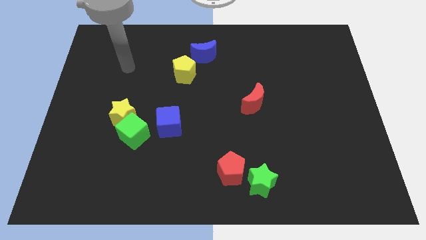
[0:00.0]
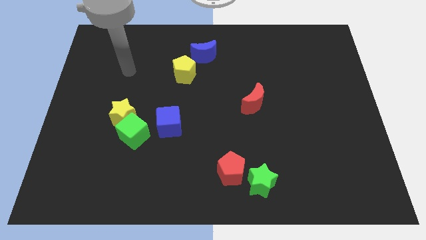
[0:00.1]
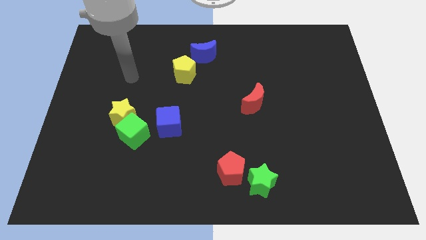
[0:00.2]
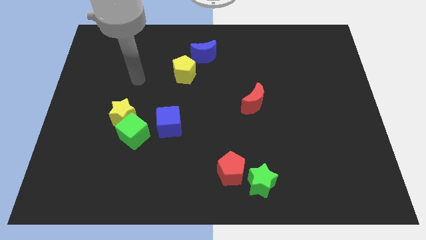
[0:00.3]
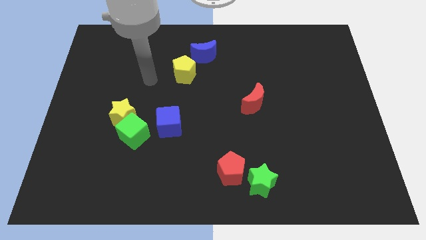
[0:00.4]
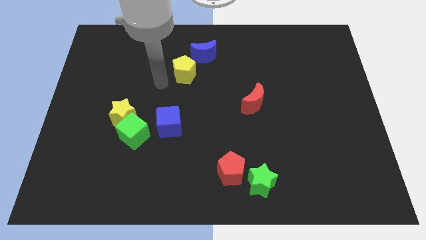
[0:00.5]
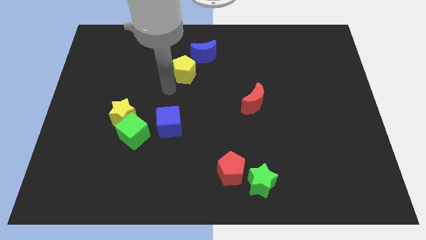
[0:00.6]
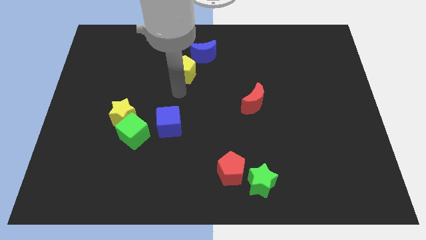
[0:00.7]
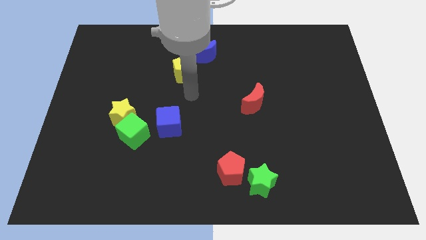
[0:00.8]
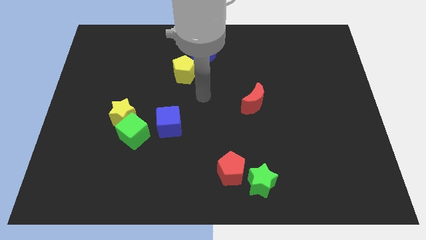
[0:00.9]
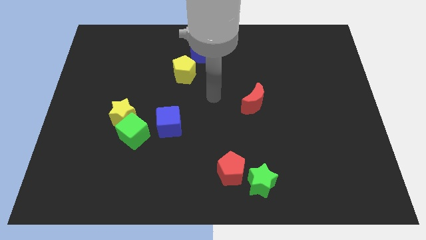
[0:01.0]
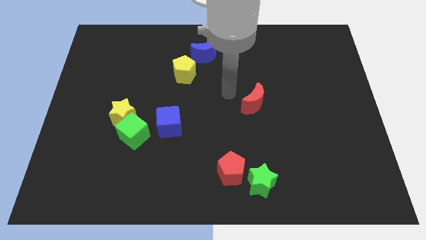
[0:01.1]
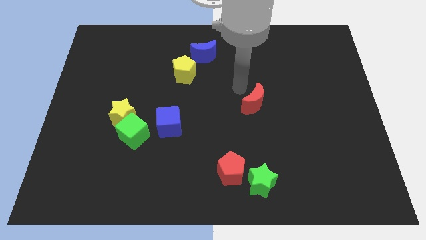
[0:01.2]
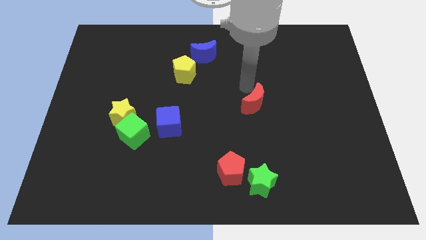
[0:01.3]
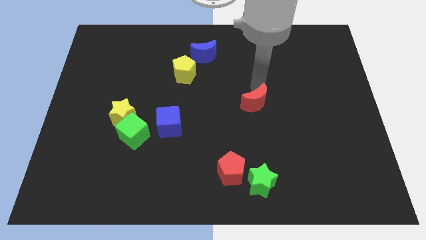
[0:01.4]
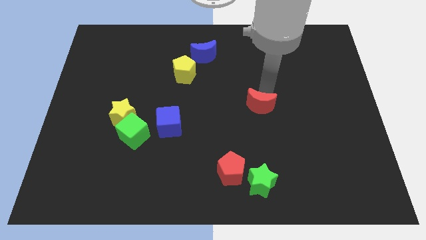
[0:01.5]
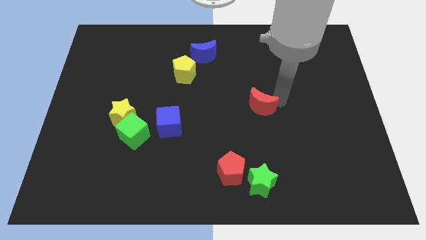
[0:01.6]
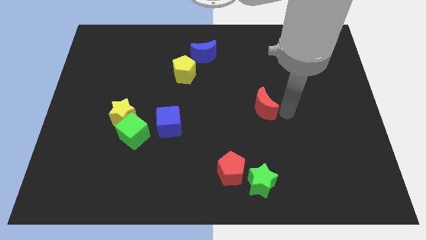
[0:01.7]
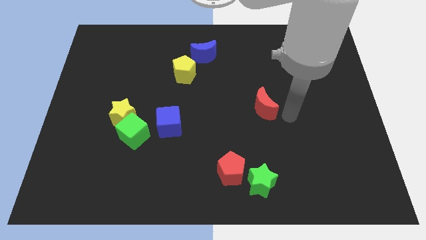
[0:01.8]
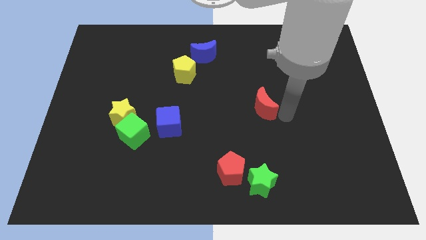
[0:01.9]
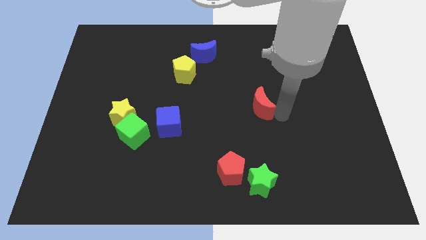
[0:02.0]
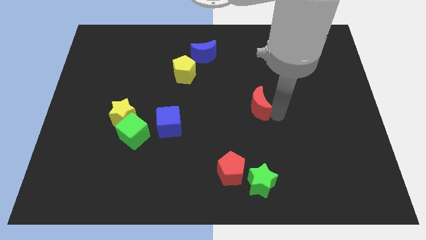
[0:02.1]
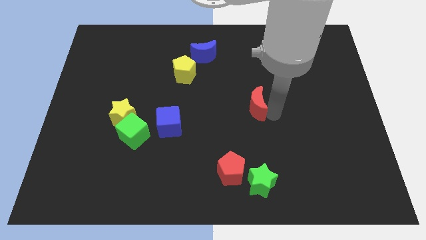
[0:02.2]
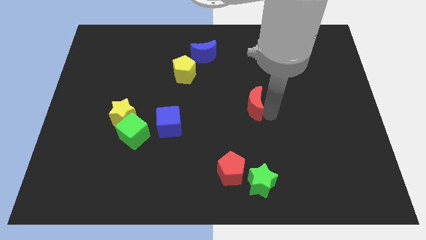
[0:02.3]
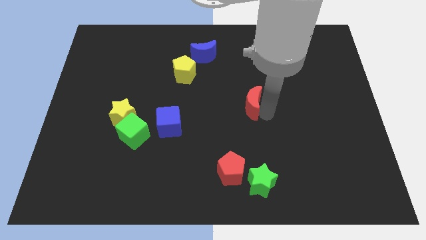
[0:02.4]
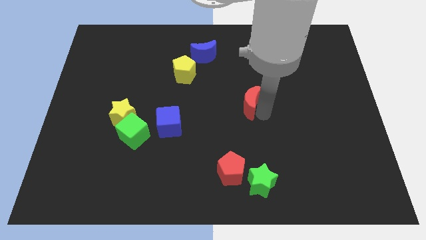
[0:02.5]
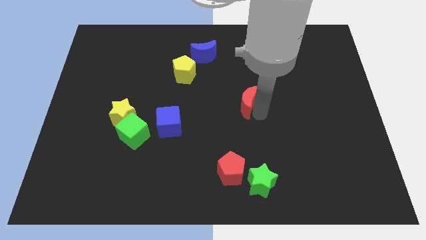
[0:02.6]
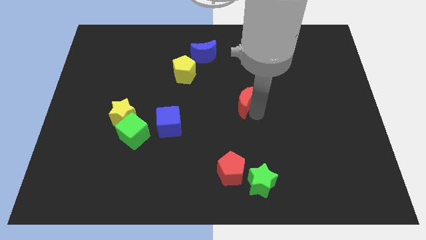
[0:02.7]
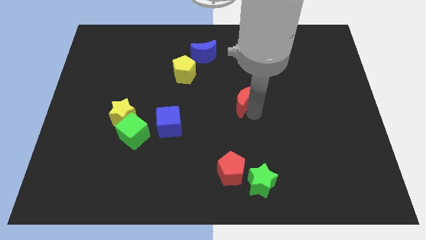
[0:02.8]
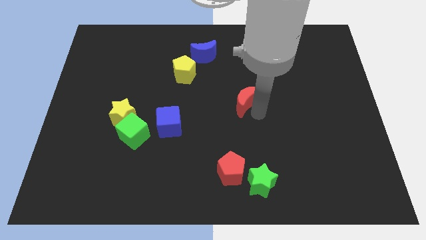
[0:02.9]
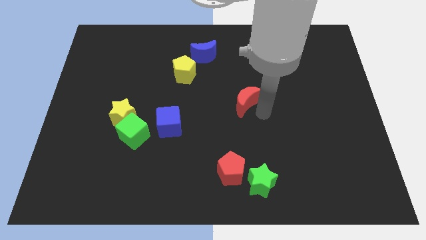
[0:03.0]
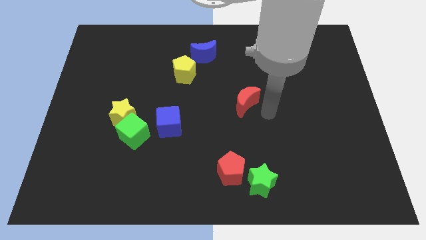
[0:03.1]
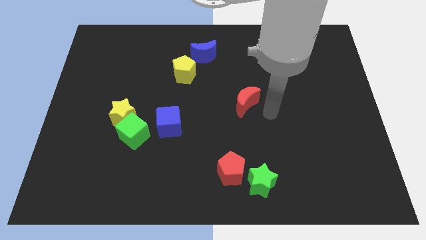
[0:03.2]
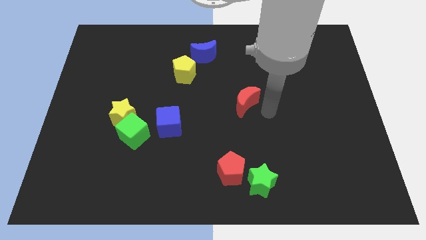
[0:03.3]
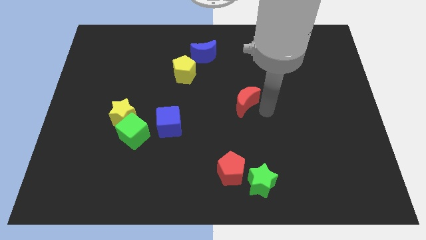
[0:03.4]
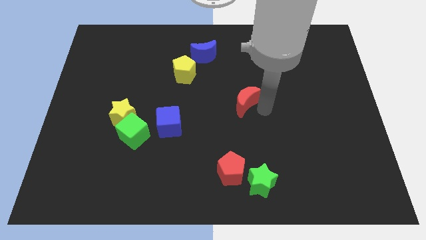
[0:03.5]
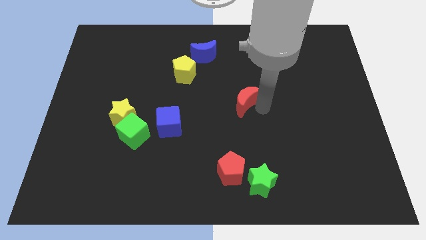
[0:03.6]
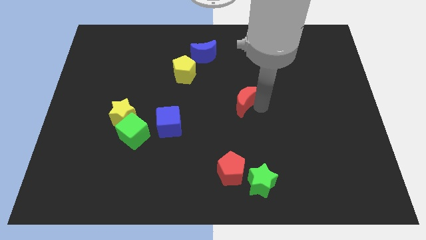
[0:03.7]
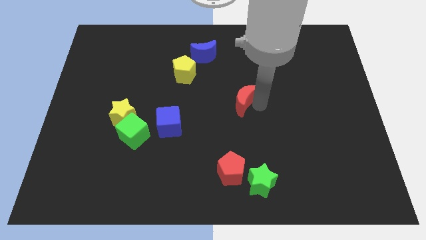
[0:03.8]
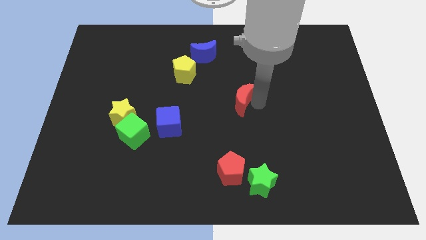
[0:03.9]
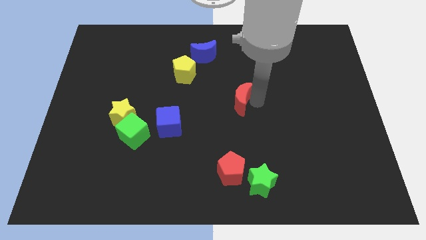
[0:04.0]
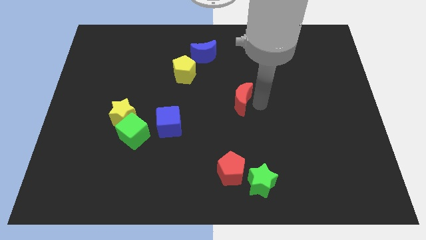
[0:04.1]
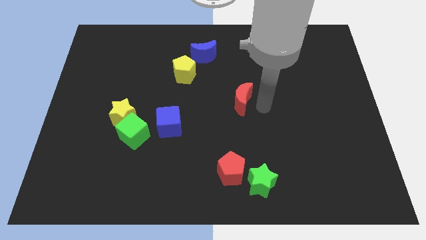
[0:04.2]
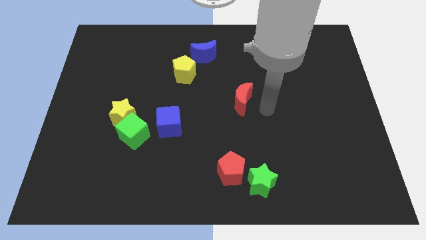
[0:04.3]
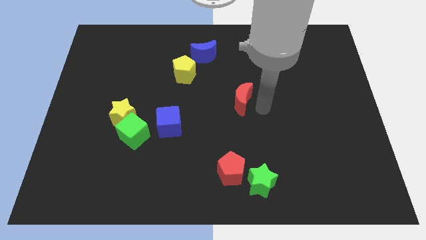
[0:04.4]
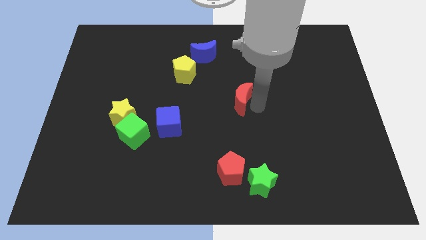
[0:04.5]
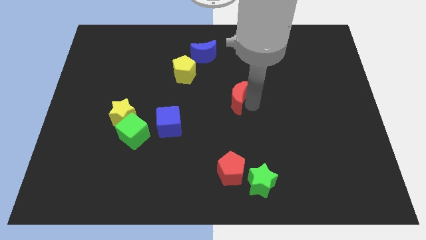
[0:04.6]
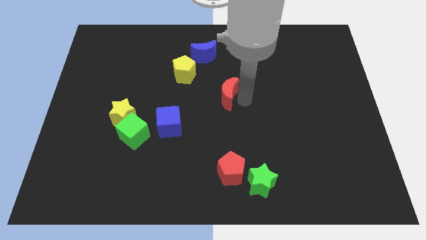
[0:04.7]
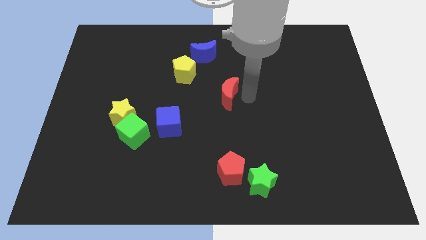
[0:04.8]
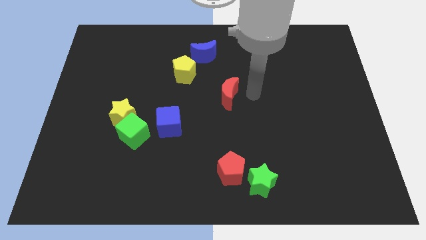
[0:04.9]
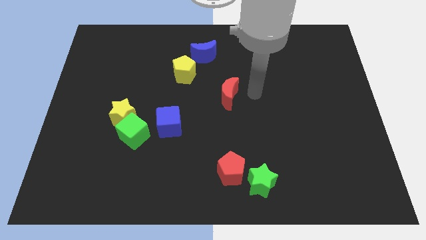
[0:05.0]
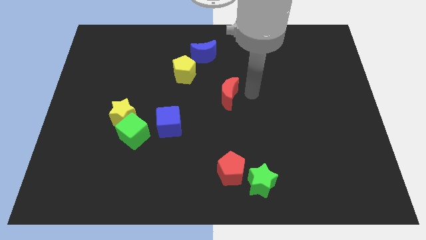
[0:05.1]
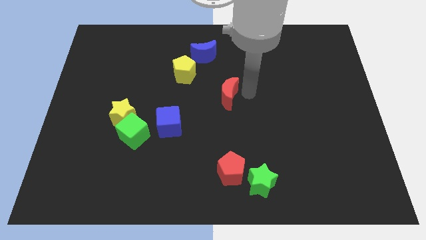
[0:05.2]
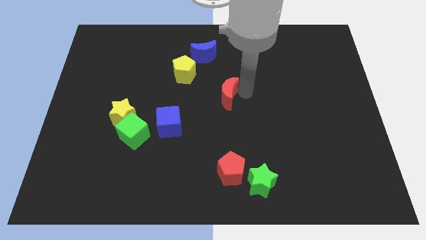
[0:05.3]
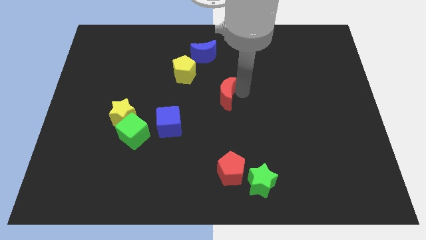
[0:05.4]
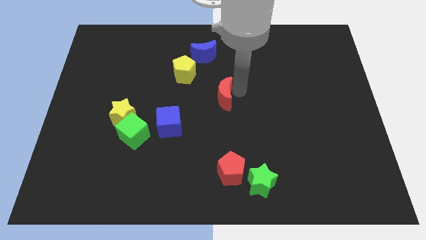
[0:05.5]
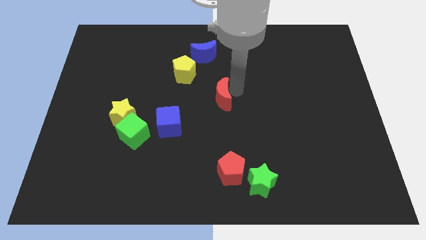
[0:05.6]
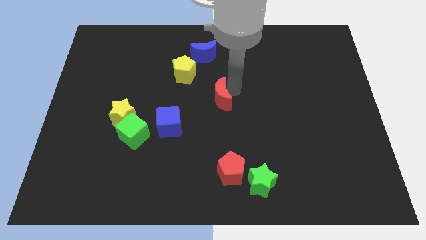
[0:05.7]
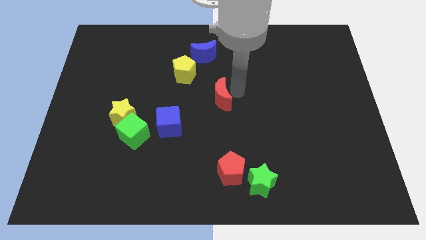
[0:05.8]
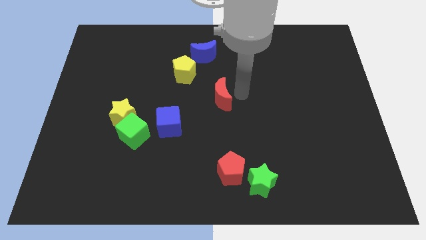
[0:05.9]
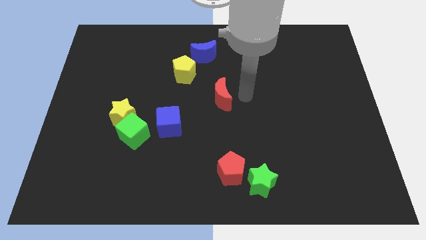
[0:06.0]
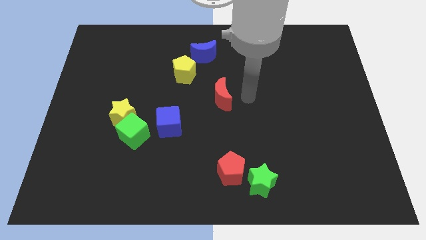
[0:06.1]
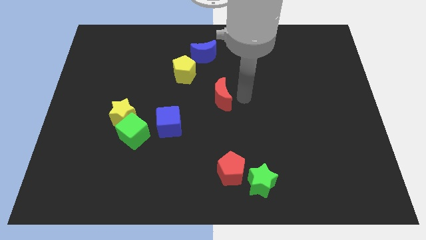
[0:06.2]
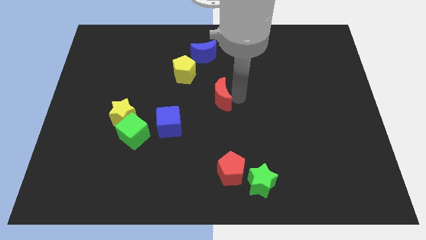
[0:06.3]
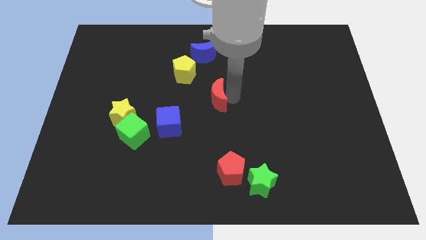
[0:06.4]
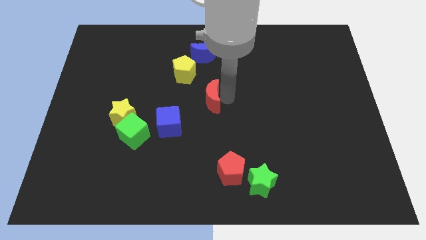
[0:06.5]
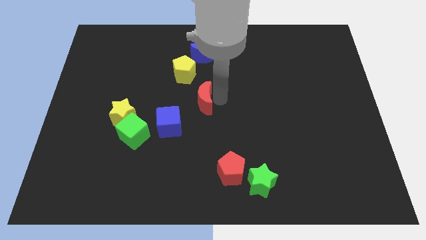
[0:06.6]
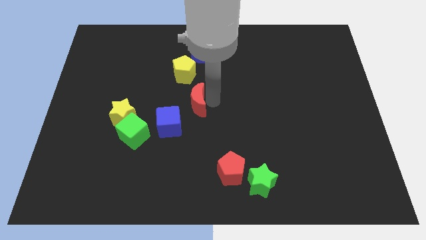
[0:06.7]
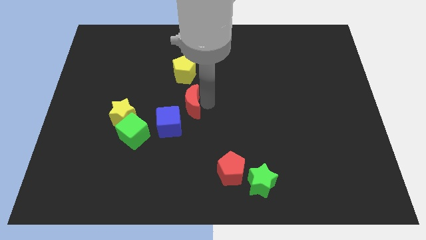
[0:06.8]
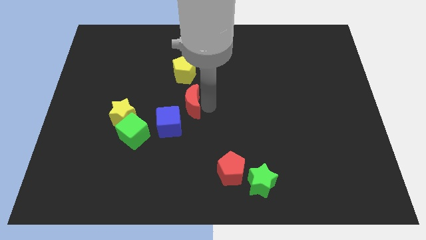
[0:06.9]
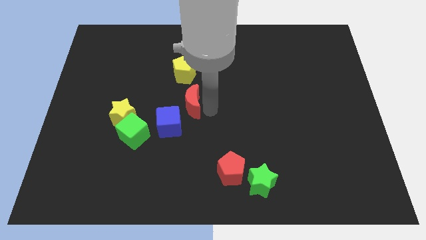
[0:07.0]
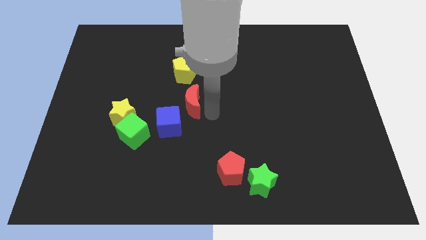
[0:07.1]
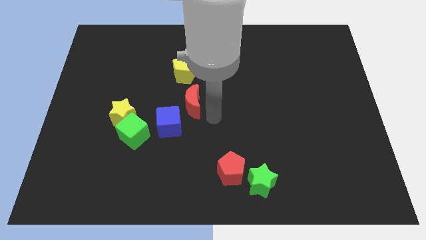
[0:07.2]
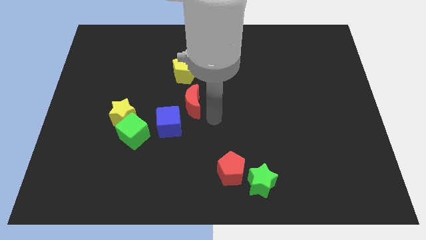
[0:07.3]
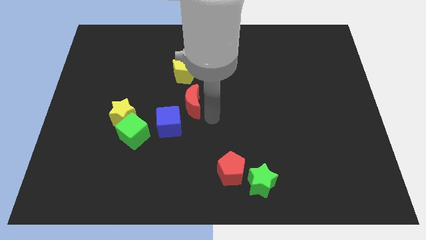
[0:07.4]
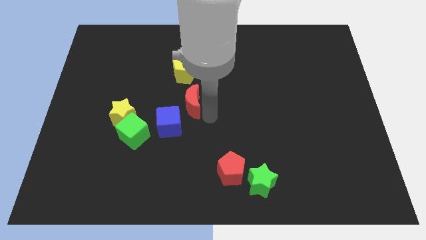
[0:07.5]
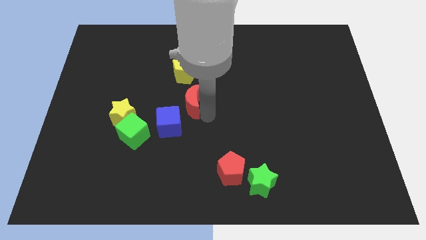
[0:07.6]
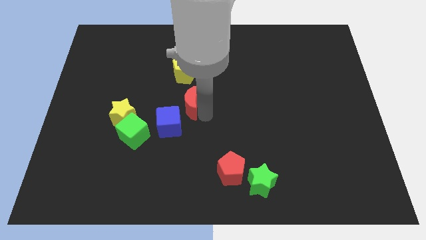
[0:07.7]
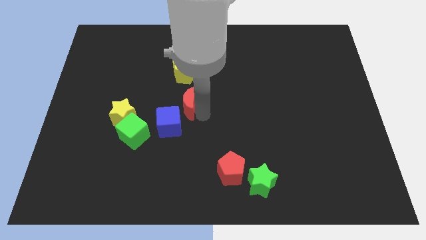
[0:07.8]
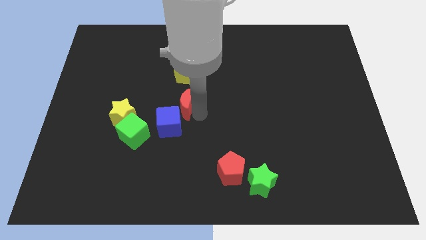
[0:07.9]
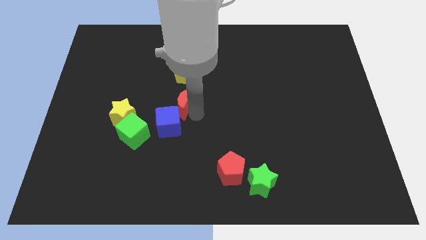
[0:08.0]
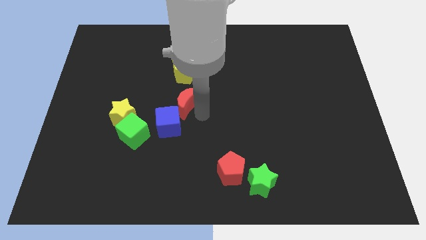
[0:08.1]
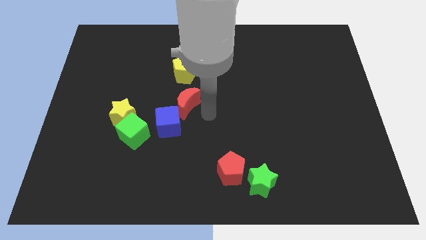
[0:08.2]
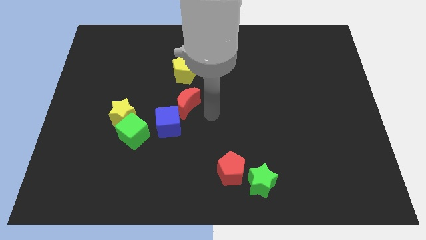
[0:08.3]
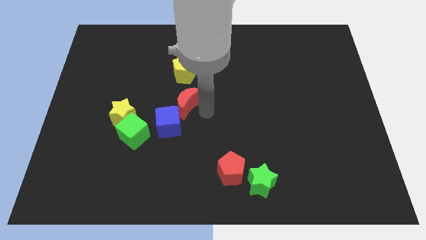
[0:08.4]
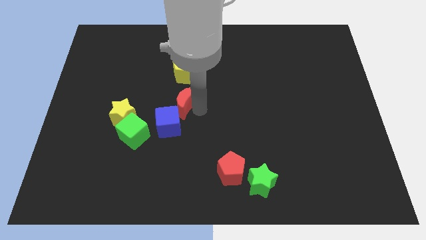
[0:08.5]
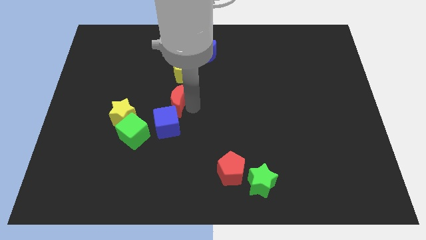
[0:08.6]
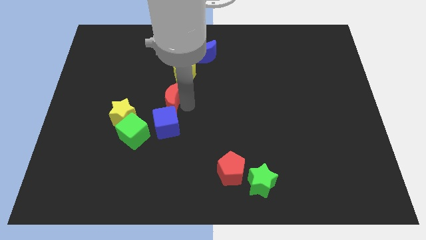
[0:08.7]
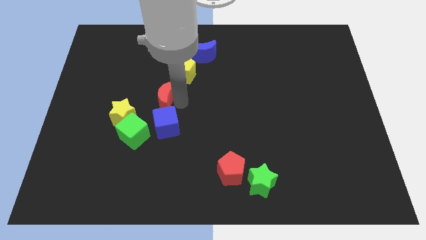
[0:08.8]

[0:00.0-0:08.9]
push the red moon left
